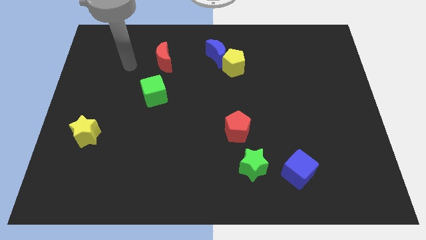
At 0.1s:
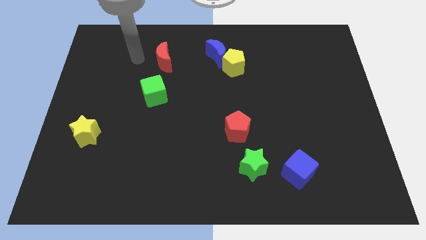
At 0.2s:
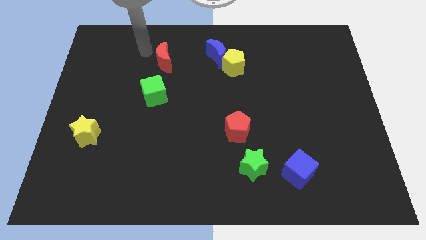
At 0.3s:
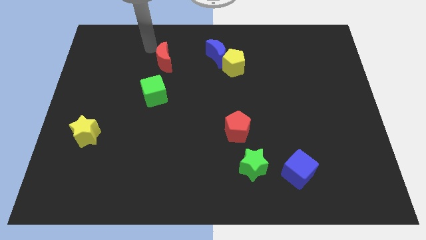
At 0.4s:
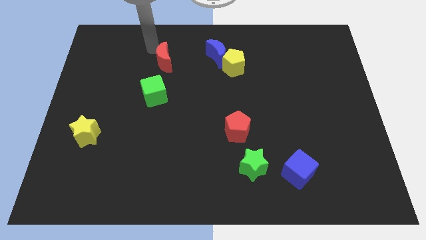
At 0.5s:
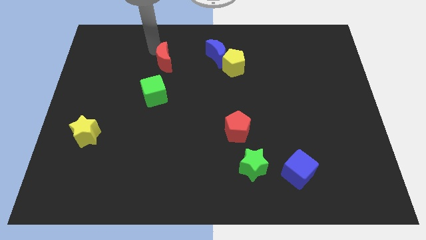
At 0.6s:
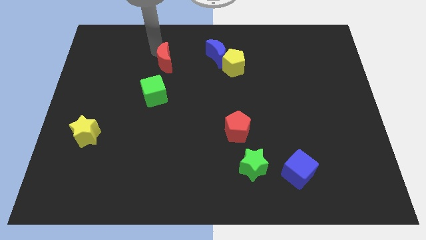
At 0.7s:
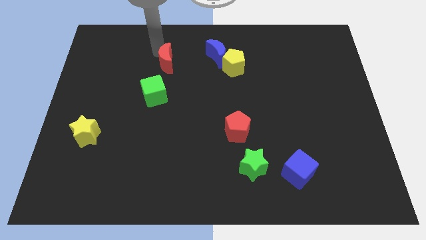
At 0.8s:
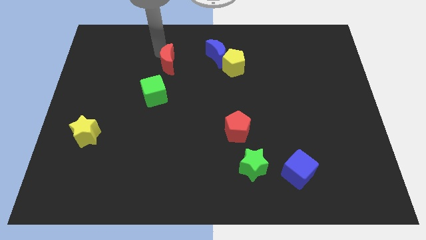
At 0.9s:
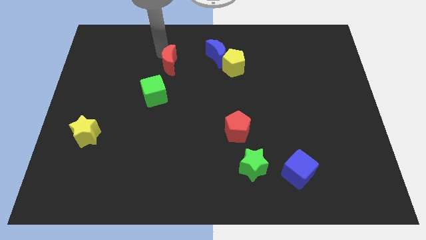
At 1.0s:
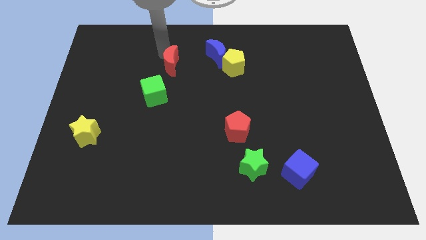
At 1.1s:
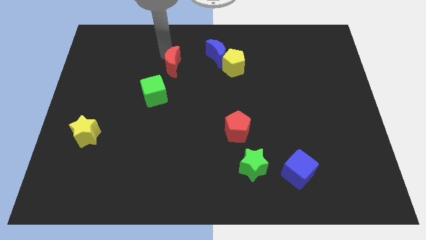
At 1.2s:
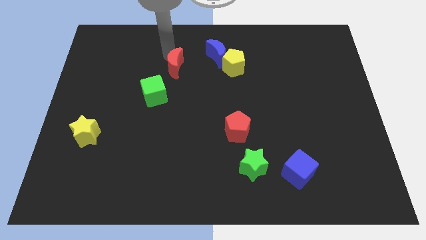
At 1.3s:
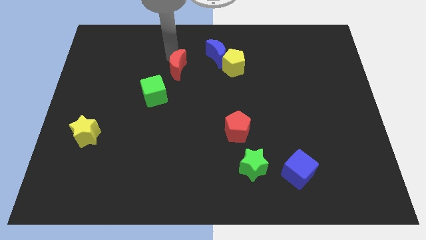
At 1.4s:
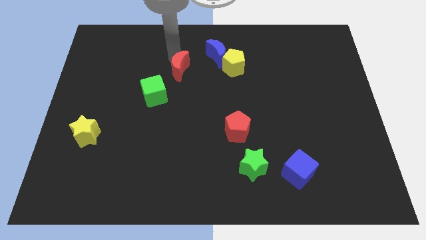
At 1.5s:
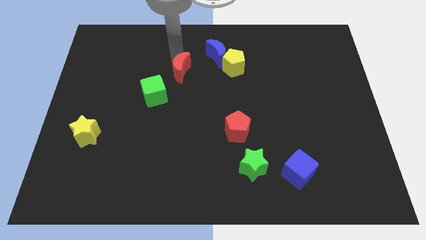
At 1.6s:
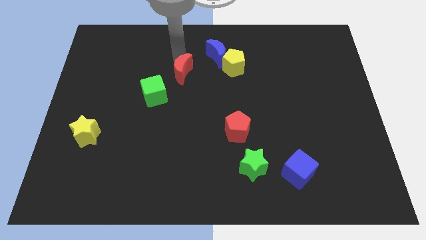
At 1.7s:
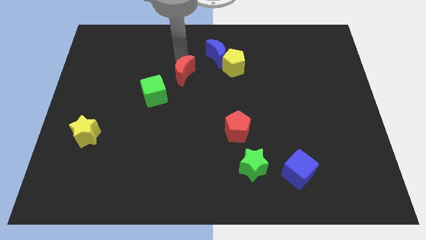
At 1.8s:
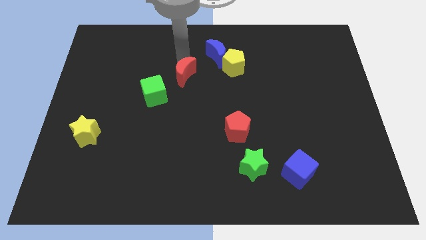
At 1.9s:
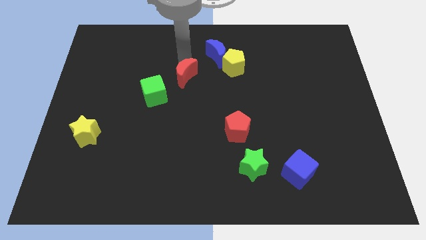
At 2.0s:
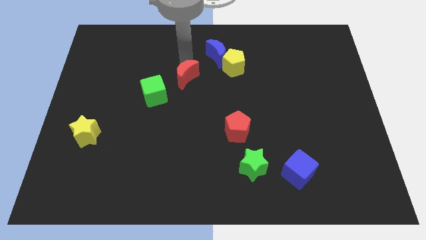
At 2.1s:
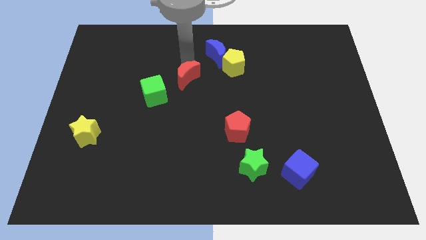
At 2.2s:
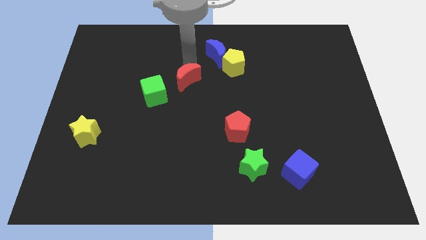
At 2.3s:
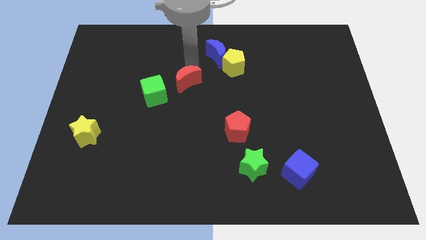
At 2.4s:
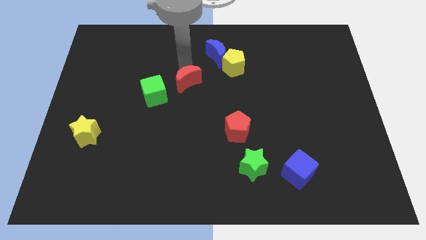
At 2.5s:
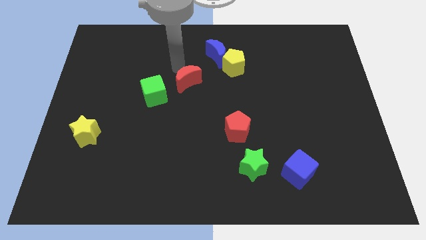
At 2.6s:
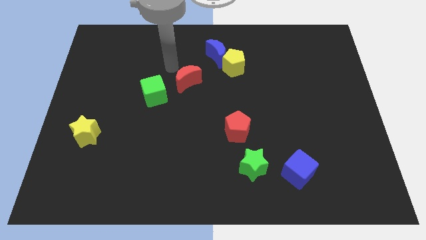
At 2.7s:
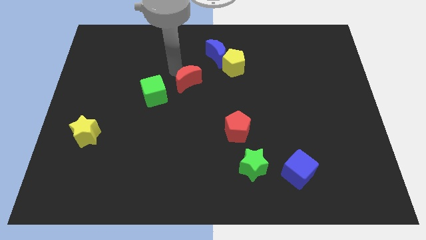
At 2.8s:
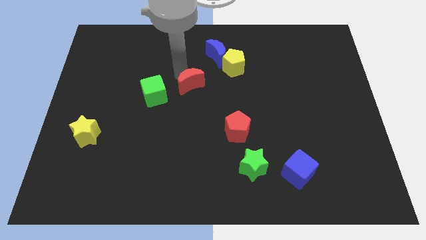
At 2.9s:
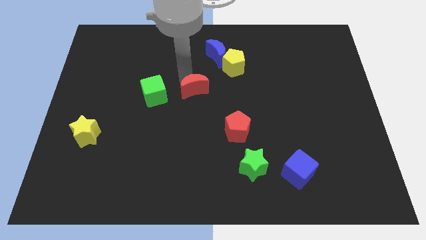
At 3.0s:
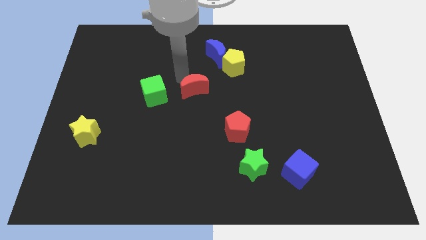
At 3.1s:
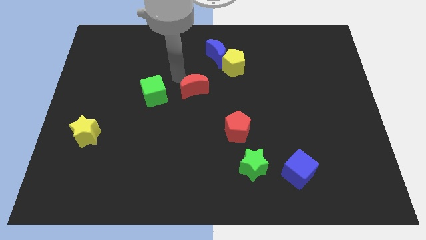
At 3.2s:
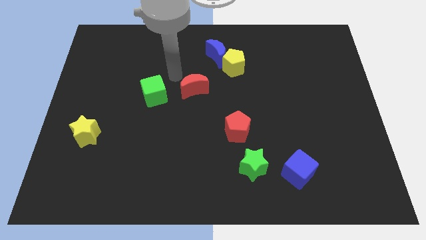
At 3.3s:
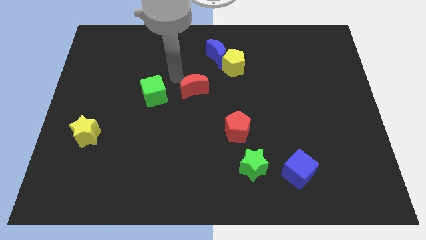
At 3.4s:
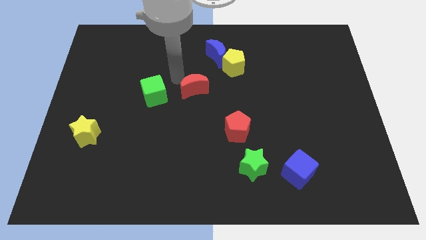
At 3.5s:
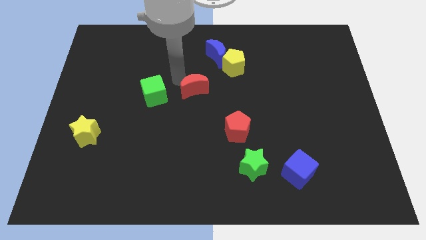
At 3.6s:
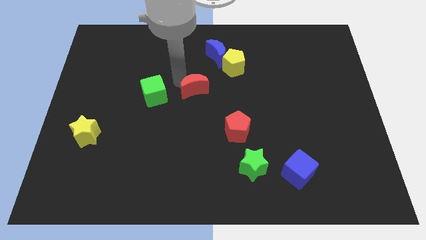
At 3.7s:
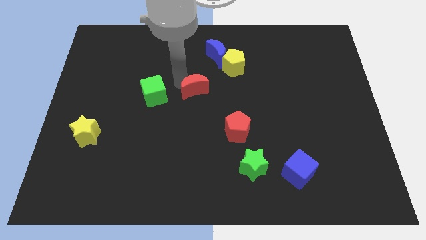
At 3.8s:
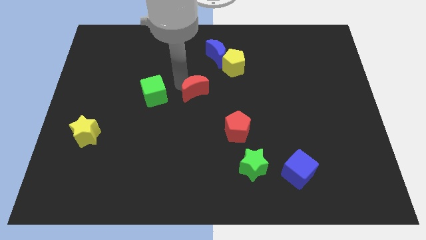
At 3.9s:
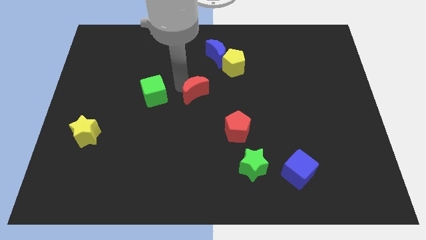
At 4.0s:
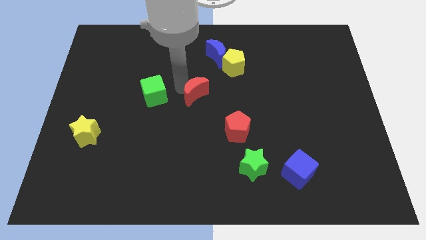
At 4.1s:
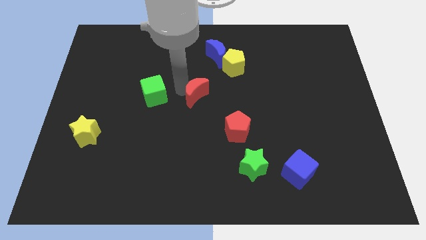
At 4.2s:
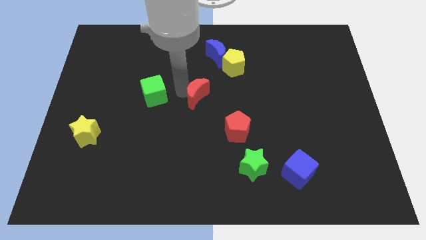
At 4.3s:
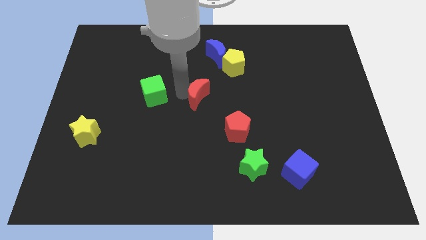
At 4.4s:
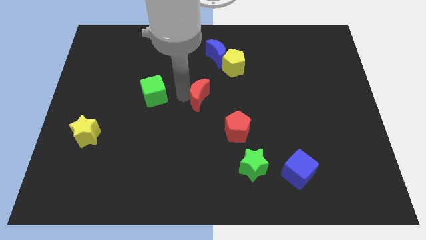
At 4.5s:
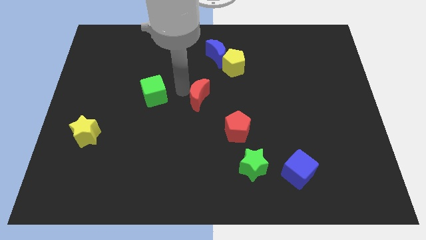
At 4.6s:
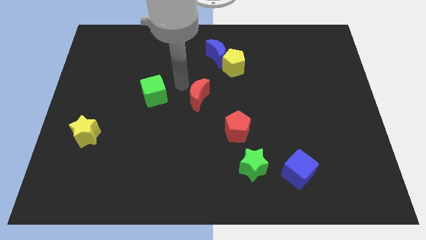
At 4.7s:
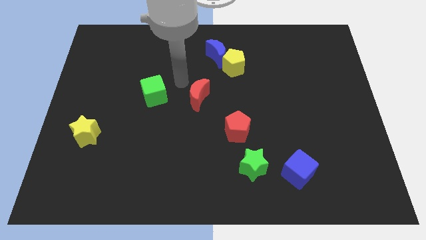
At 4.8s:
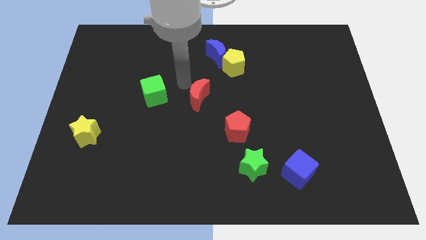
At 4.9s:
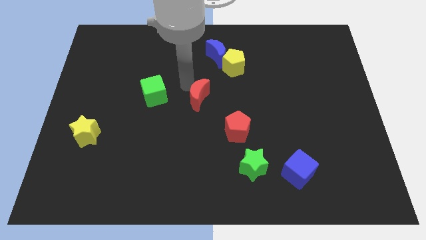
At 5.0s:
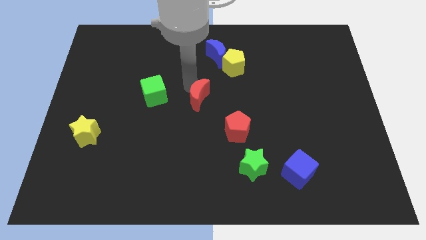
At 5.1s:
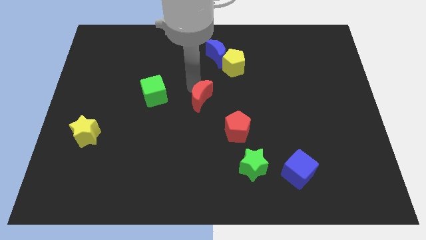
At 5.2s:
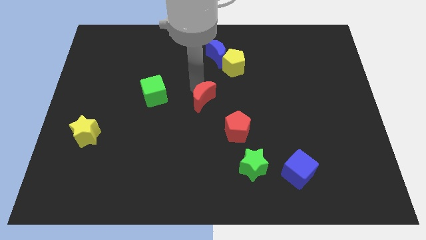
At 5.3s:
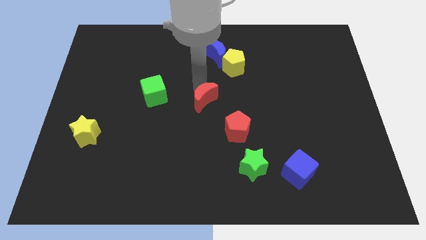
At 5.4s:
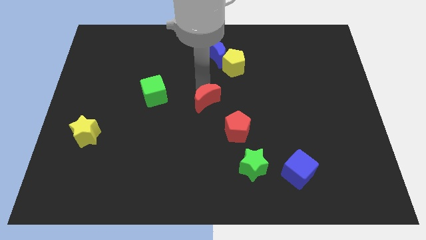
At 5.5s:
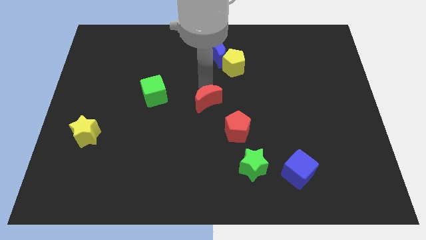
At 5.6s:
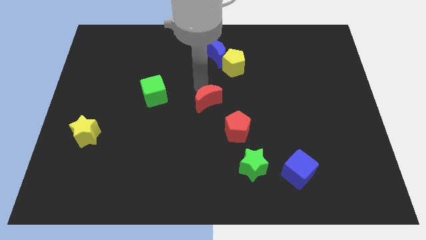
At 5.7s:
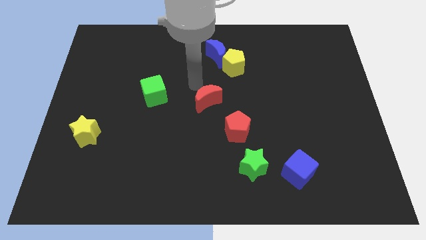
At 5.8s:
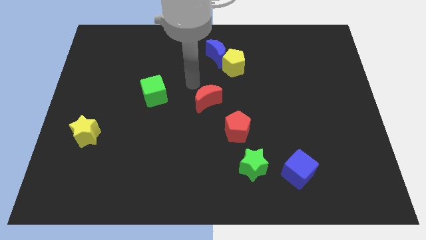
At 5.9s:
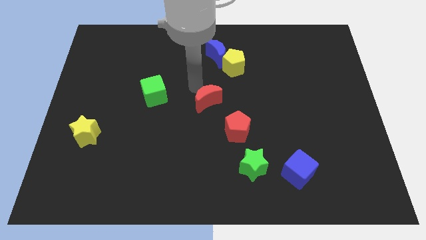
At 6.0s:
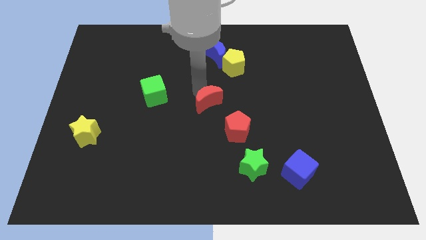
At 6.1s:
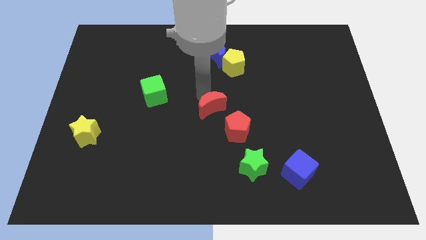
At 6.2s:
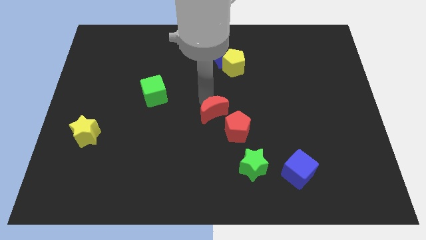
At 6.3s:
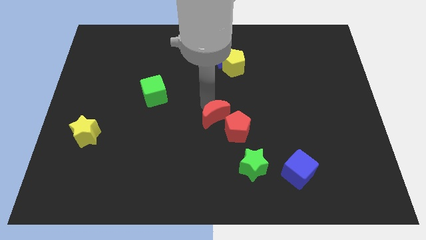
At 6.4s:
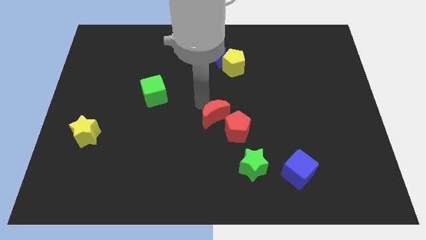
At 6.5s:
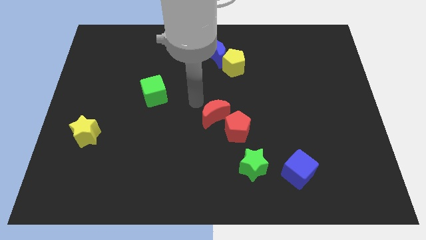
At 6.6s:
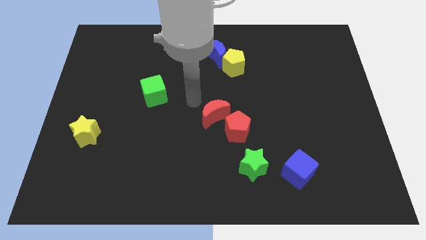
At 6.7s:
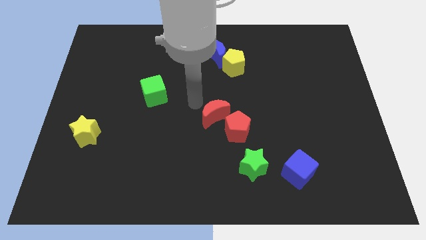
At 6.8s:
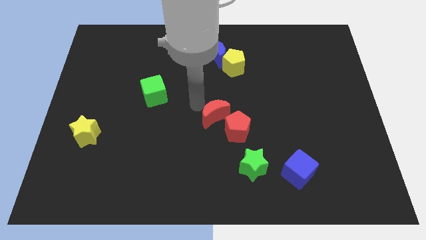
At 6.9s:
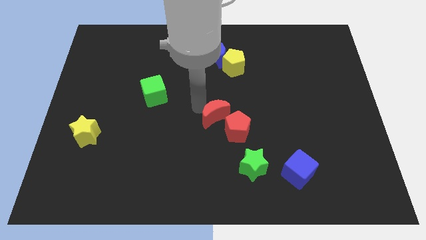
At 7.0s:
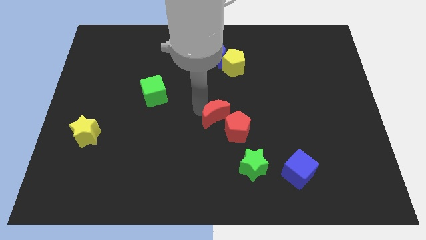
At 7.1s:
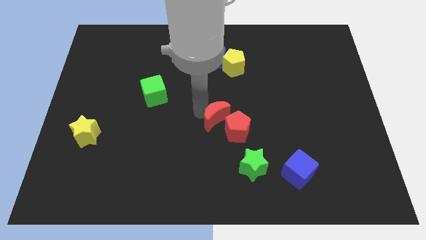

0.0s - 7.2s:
slide the red moon to the red pentagon
